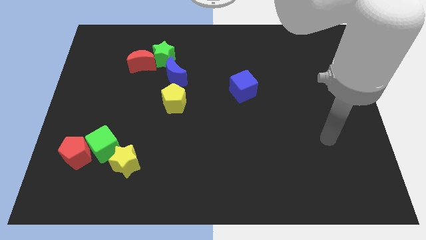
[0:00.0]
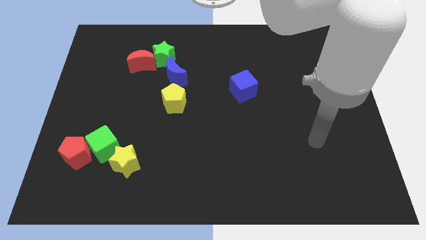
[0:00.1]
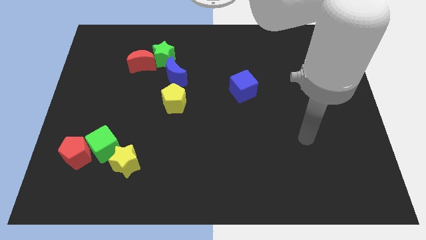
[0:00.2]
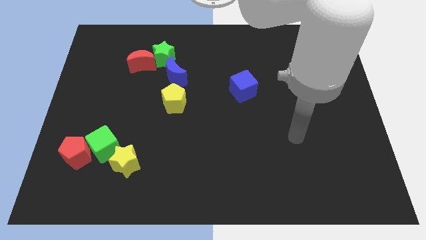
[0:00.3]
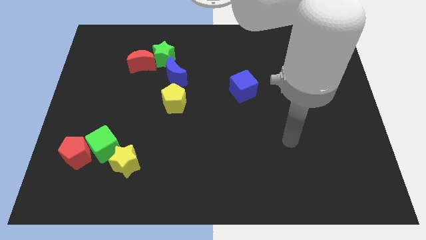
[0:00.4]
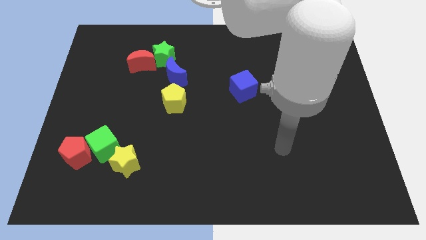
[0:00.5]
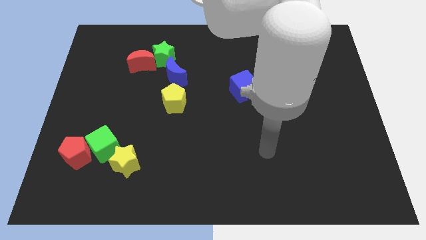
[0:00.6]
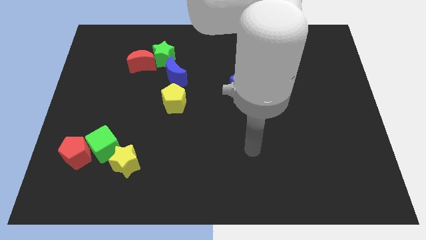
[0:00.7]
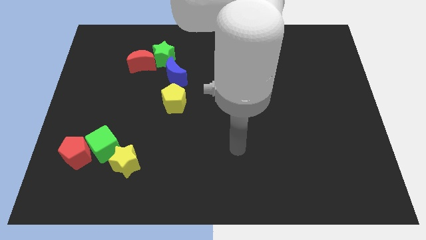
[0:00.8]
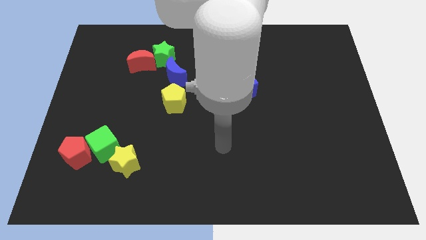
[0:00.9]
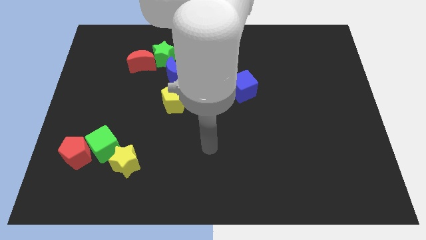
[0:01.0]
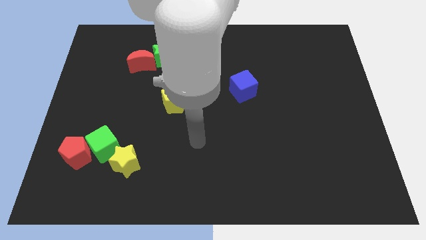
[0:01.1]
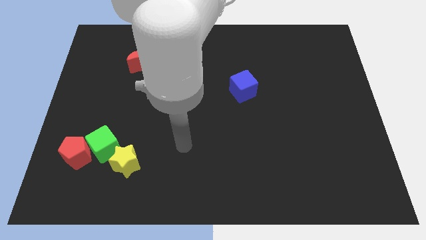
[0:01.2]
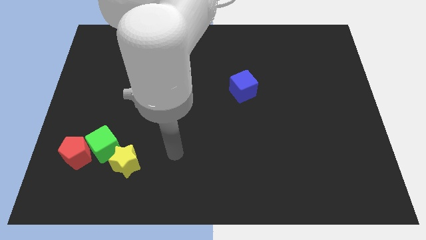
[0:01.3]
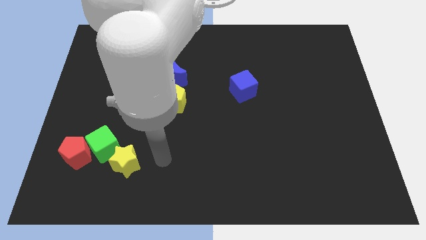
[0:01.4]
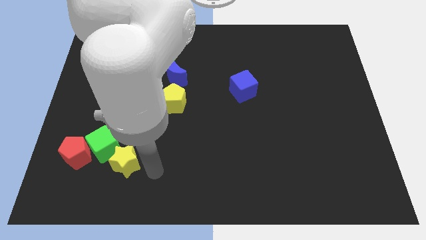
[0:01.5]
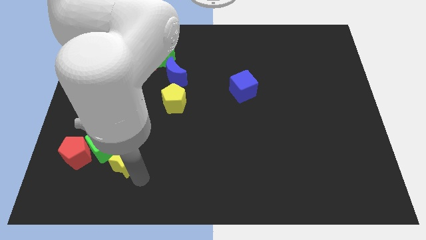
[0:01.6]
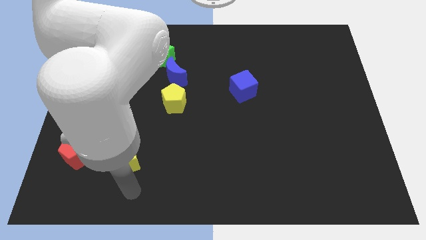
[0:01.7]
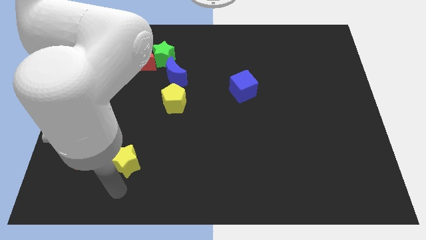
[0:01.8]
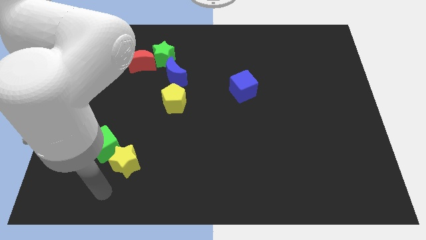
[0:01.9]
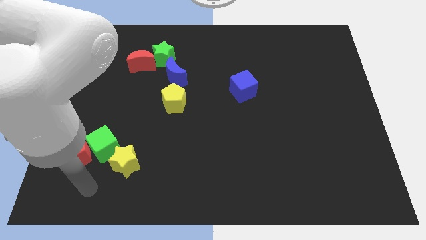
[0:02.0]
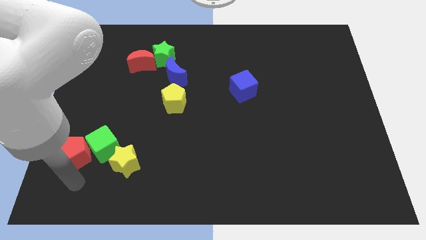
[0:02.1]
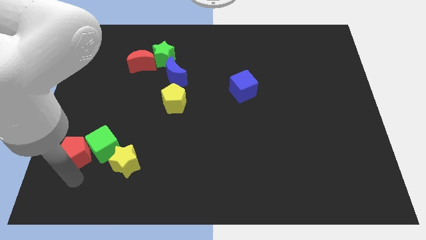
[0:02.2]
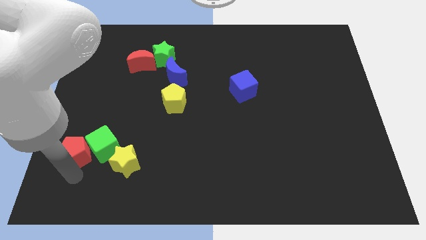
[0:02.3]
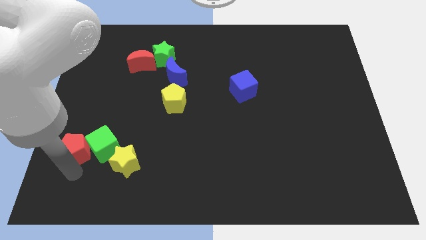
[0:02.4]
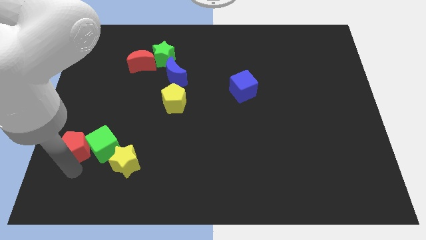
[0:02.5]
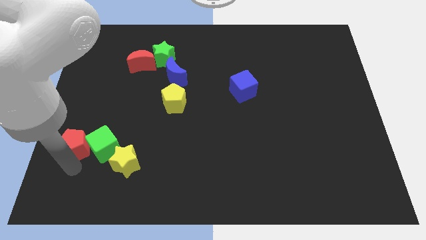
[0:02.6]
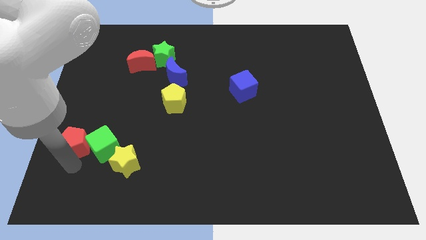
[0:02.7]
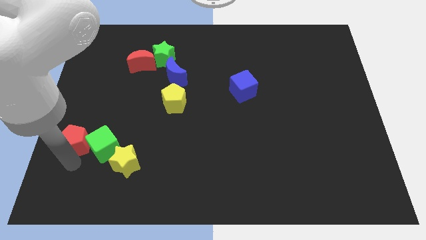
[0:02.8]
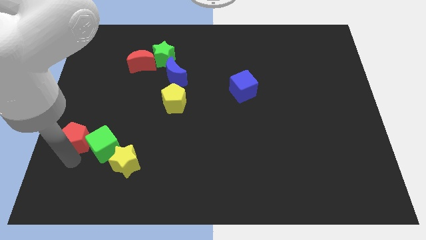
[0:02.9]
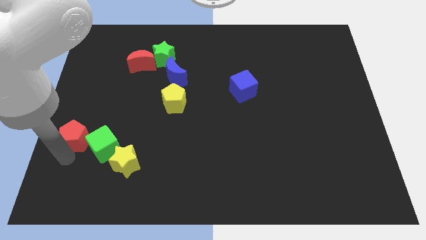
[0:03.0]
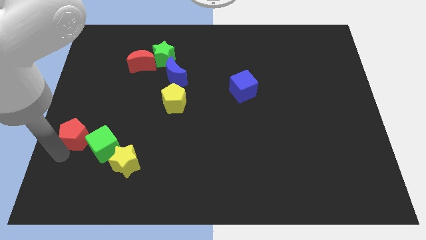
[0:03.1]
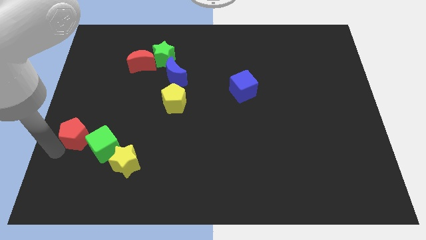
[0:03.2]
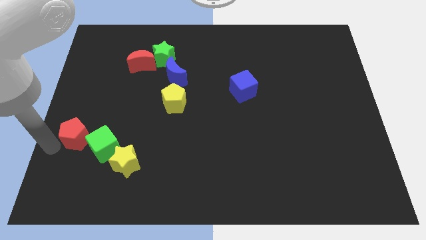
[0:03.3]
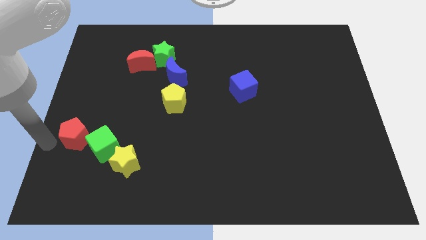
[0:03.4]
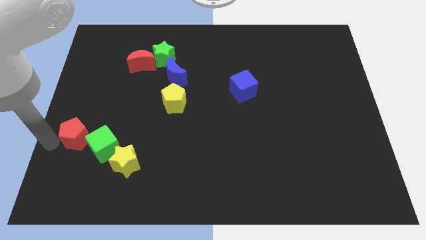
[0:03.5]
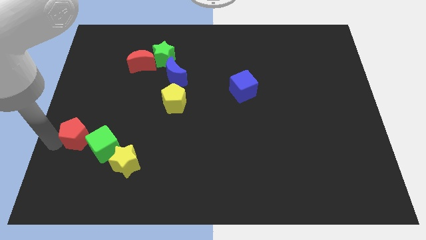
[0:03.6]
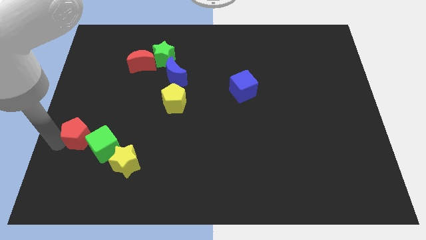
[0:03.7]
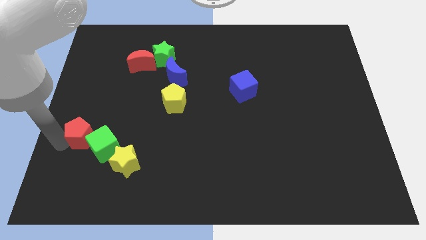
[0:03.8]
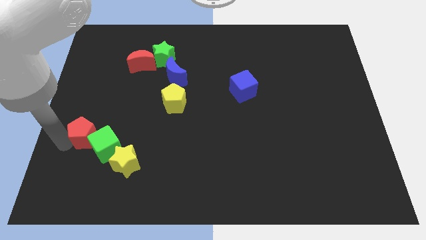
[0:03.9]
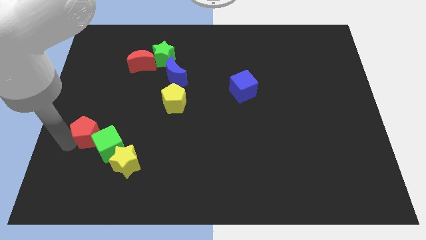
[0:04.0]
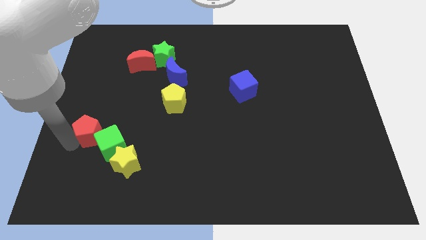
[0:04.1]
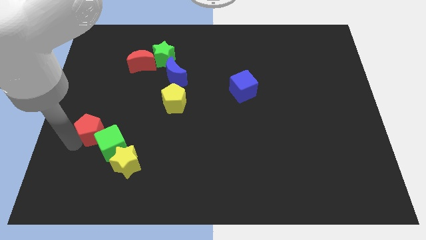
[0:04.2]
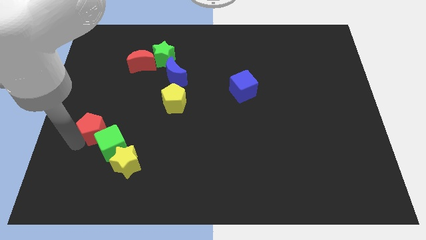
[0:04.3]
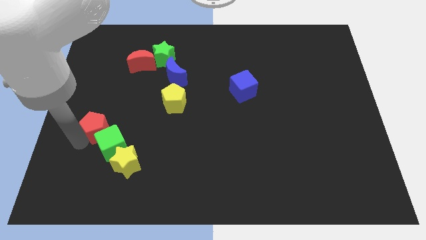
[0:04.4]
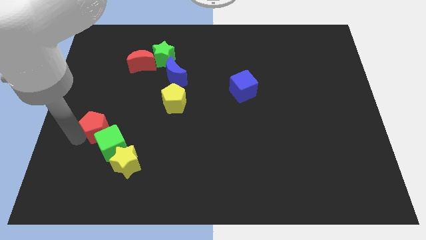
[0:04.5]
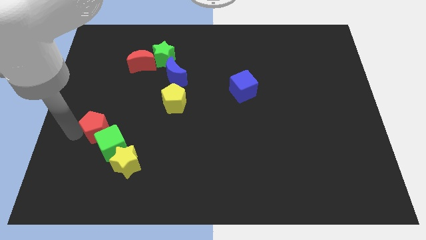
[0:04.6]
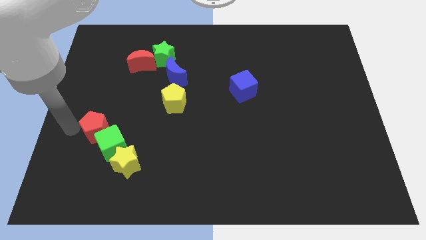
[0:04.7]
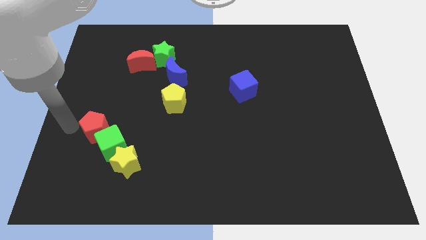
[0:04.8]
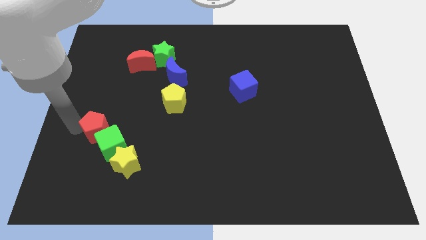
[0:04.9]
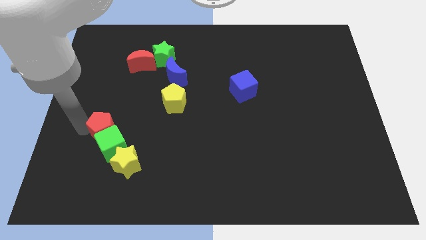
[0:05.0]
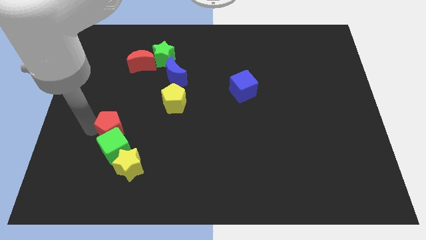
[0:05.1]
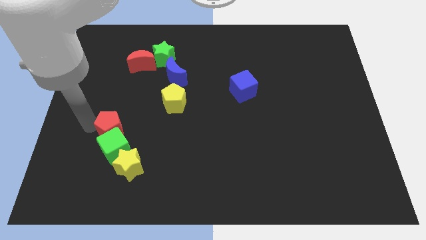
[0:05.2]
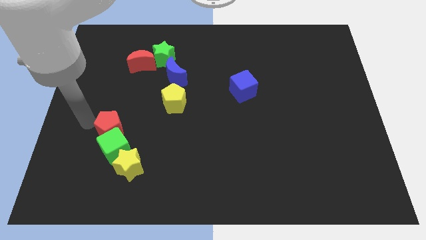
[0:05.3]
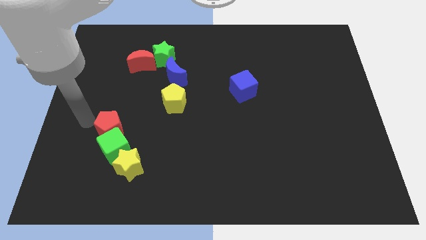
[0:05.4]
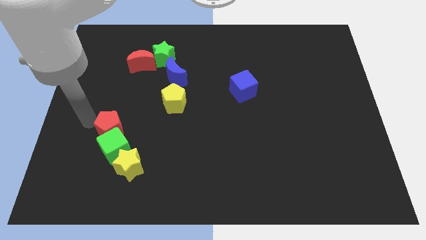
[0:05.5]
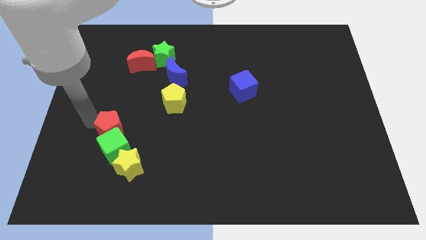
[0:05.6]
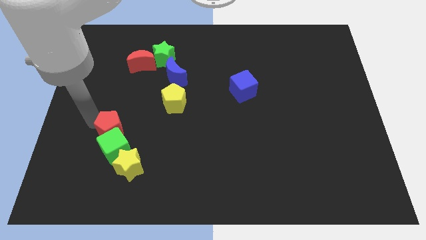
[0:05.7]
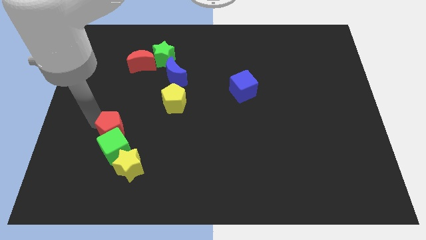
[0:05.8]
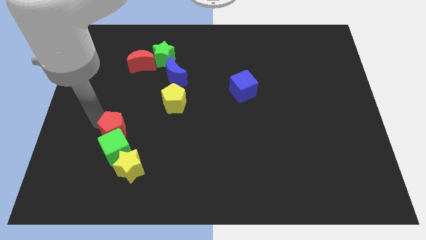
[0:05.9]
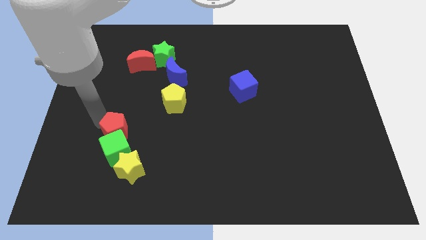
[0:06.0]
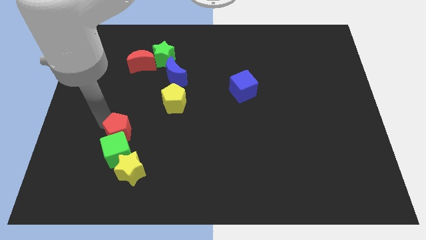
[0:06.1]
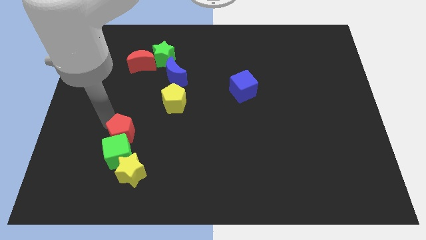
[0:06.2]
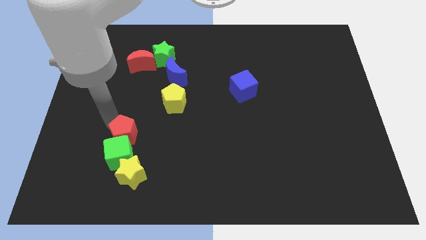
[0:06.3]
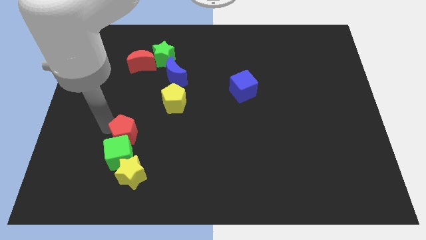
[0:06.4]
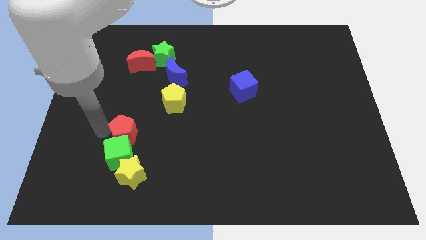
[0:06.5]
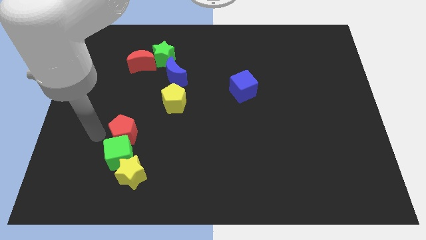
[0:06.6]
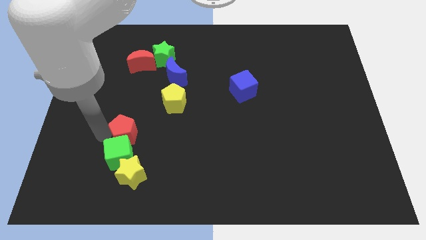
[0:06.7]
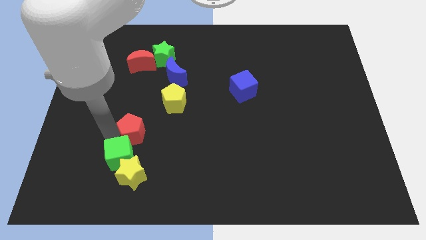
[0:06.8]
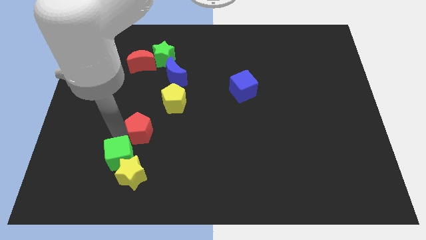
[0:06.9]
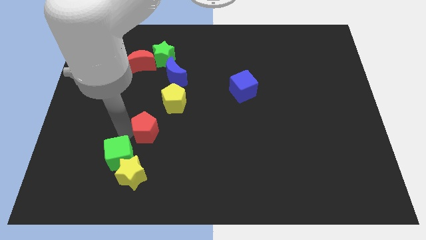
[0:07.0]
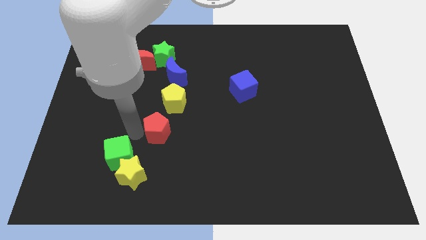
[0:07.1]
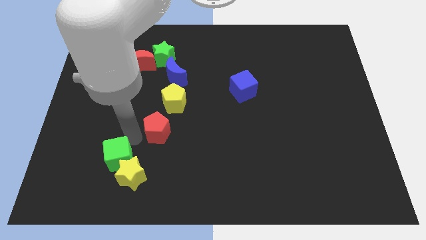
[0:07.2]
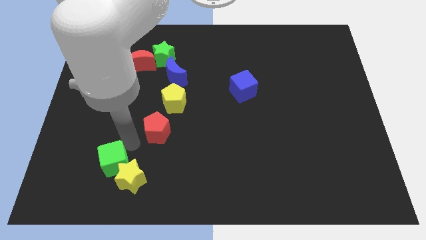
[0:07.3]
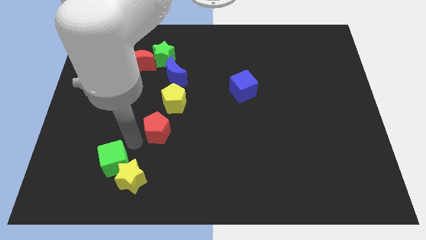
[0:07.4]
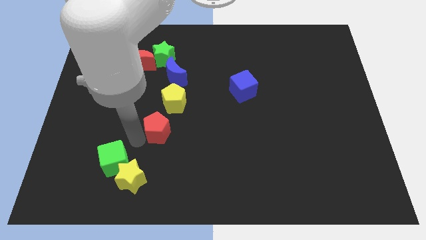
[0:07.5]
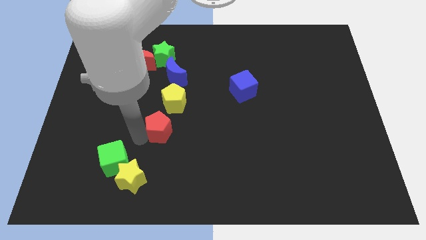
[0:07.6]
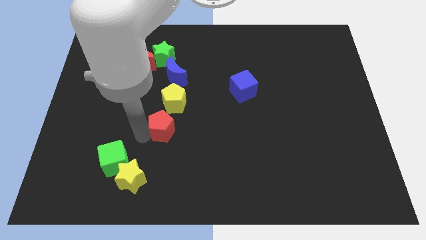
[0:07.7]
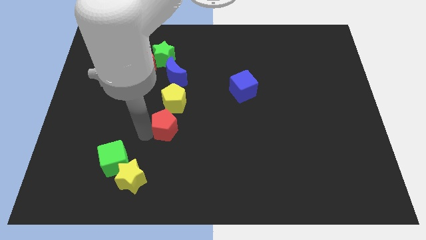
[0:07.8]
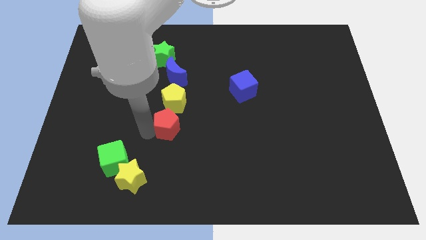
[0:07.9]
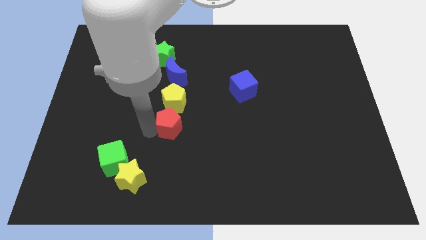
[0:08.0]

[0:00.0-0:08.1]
move the red pentagon to the center of the board
